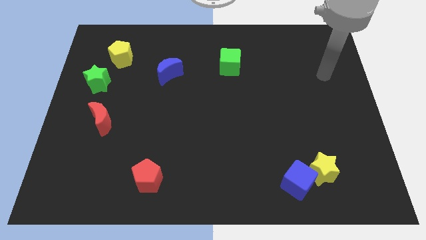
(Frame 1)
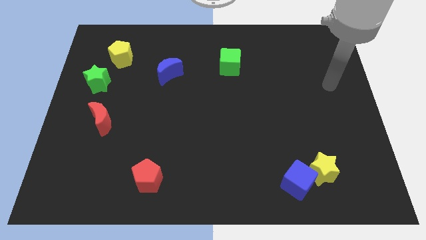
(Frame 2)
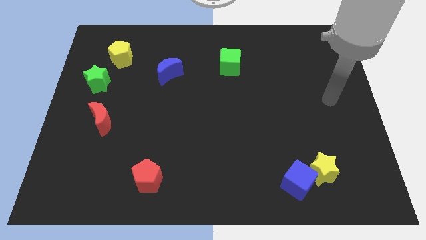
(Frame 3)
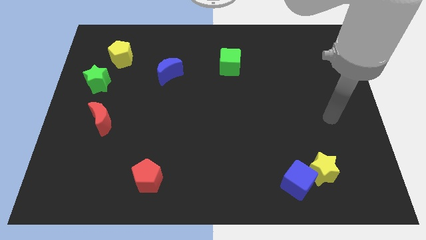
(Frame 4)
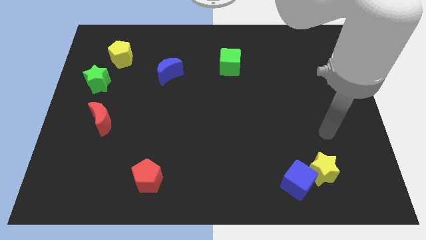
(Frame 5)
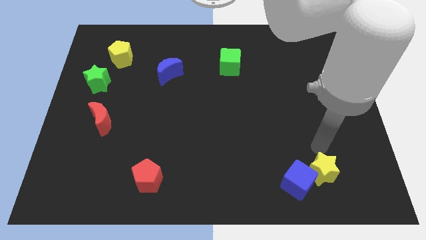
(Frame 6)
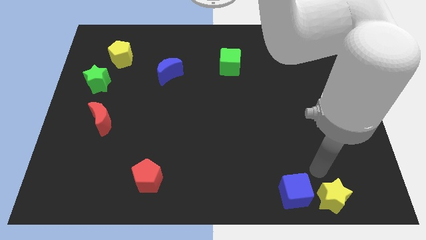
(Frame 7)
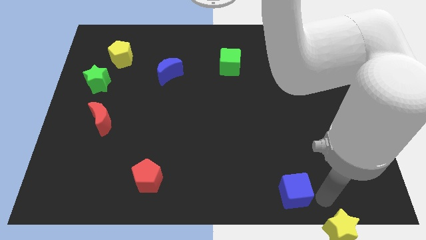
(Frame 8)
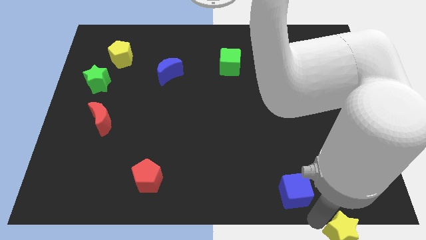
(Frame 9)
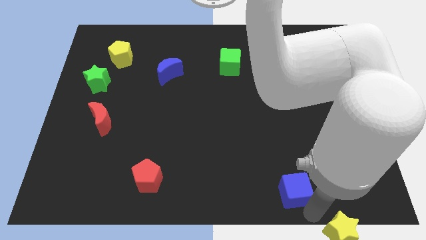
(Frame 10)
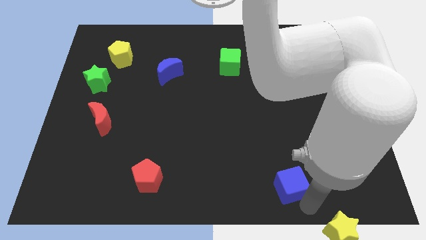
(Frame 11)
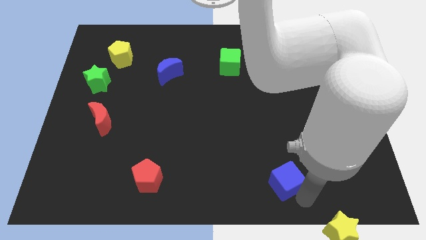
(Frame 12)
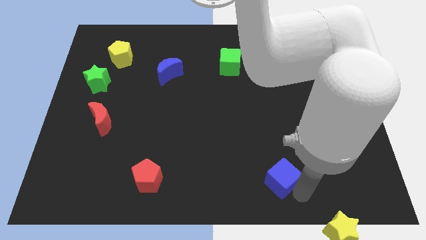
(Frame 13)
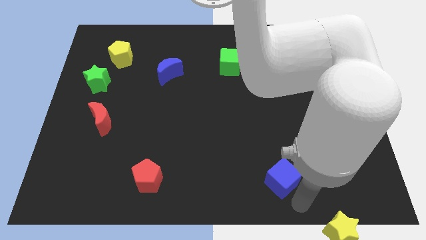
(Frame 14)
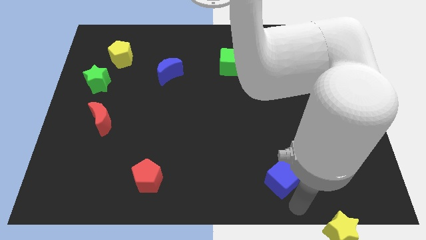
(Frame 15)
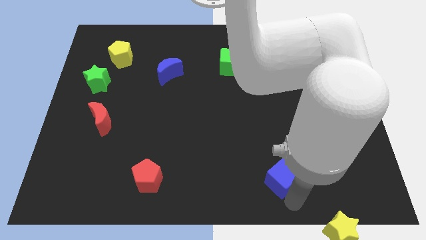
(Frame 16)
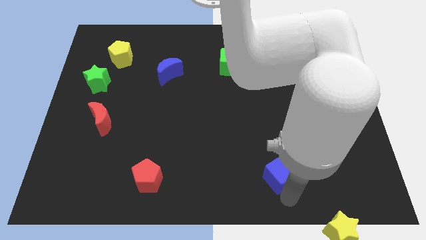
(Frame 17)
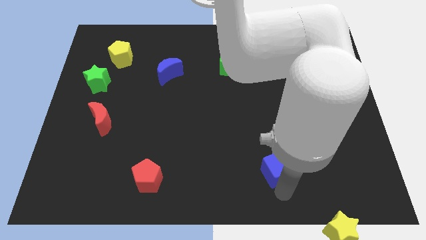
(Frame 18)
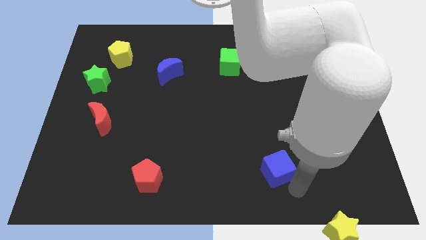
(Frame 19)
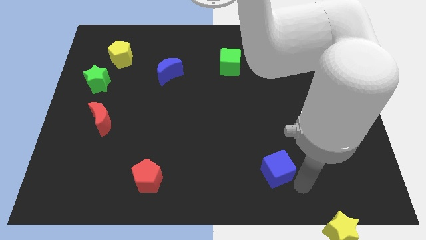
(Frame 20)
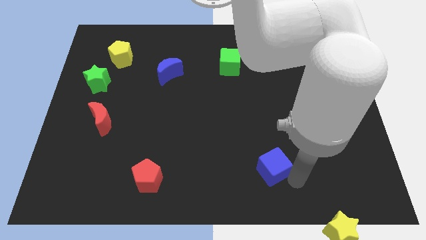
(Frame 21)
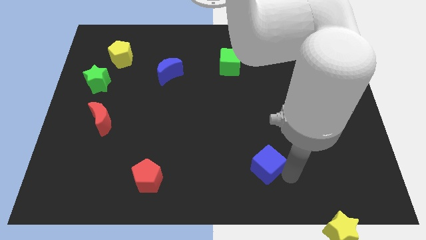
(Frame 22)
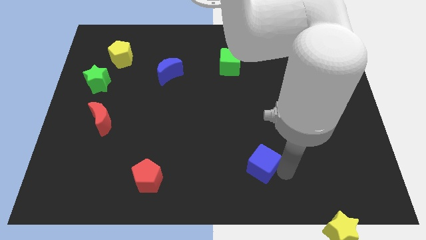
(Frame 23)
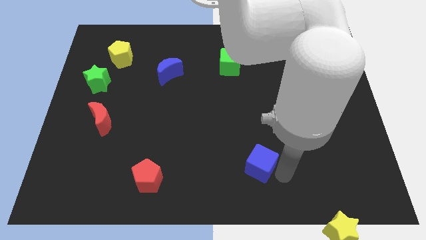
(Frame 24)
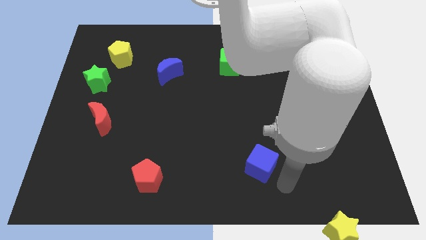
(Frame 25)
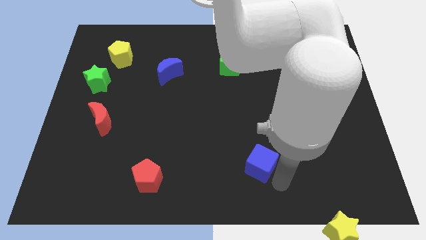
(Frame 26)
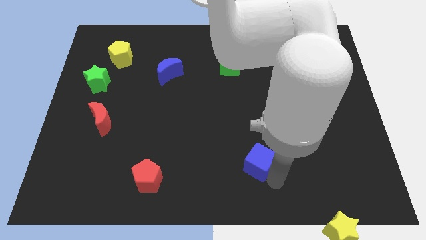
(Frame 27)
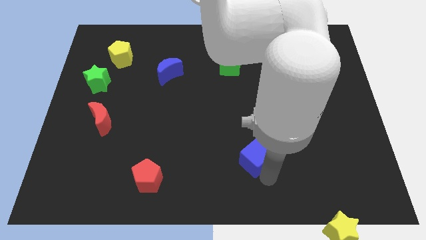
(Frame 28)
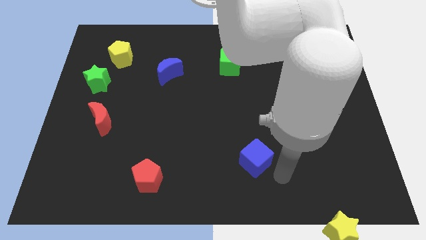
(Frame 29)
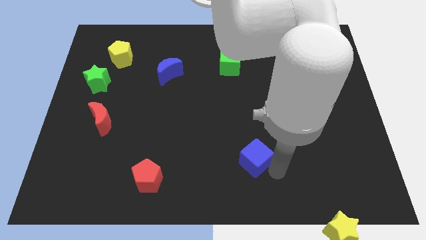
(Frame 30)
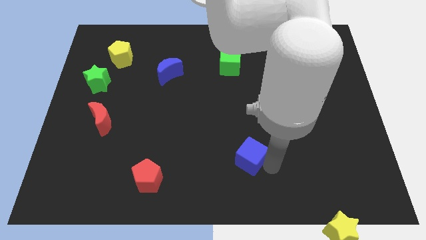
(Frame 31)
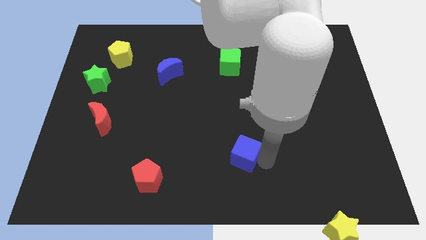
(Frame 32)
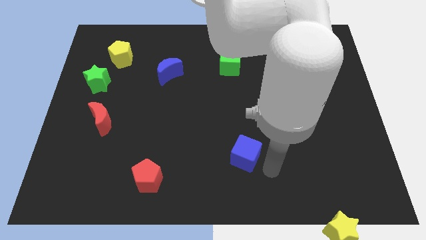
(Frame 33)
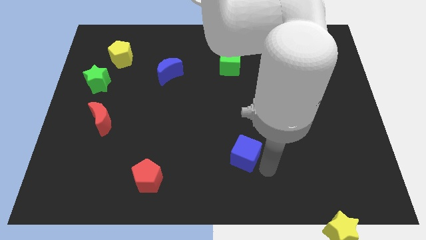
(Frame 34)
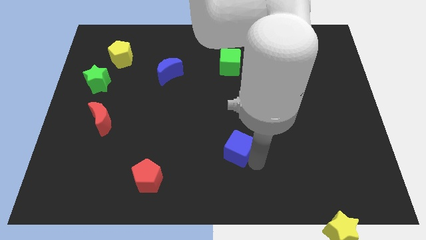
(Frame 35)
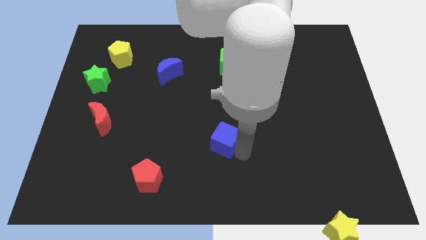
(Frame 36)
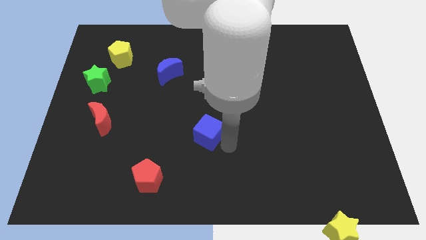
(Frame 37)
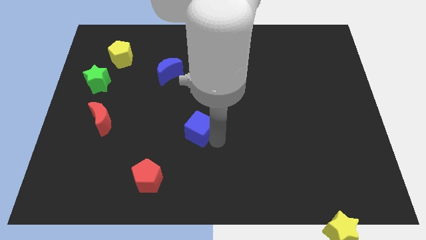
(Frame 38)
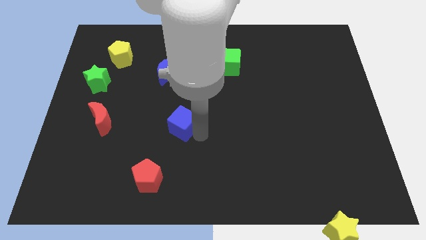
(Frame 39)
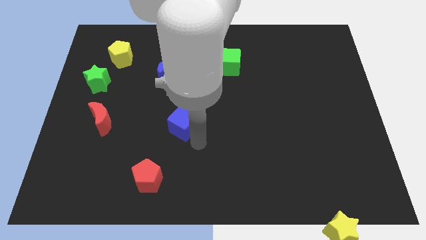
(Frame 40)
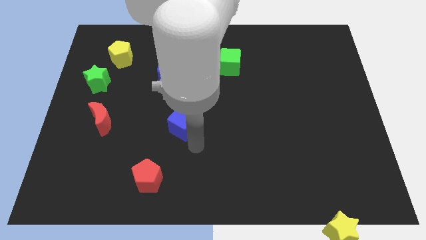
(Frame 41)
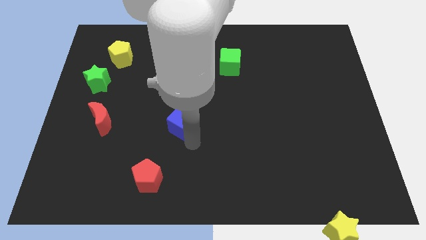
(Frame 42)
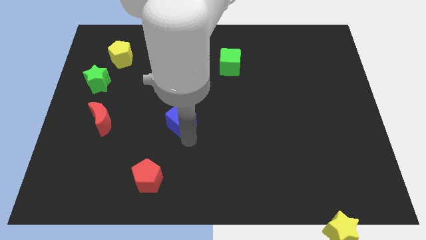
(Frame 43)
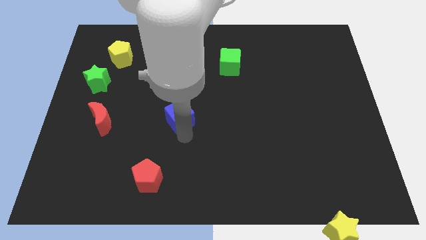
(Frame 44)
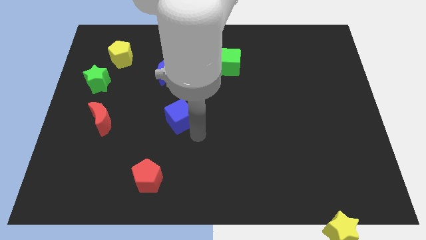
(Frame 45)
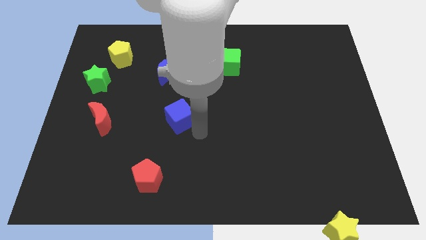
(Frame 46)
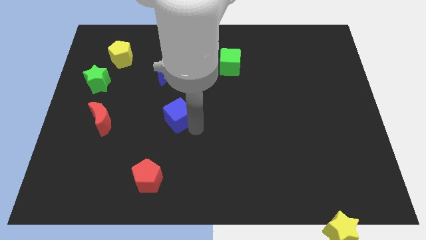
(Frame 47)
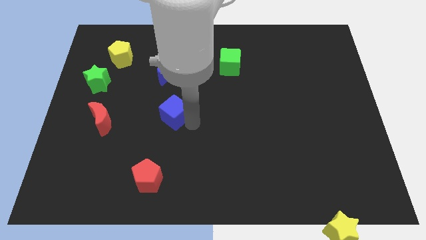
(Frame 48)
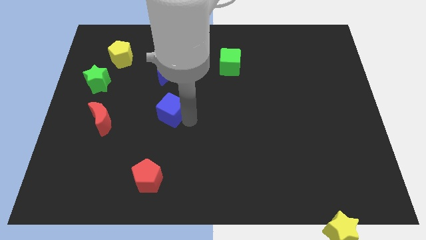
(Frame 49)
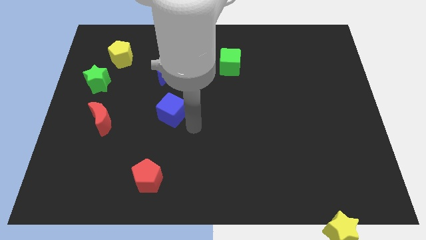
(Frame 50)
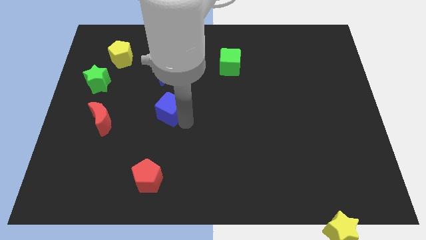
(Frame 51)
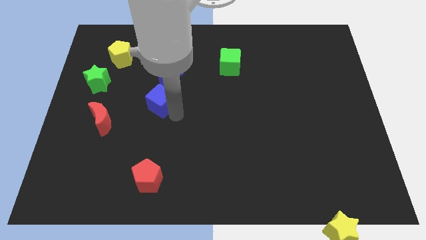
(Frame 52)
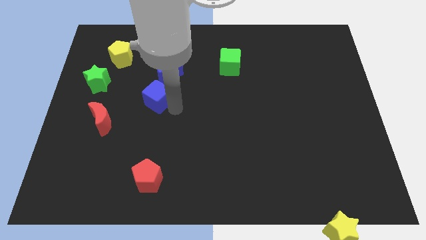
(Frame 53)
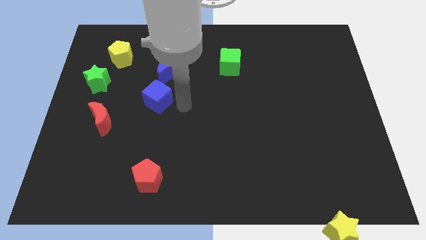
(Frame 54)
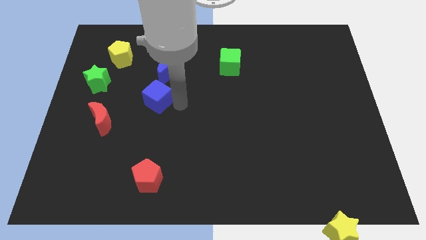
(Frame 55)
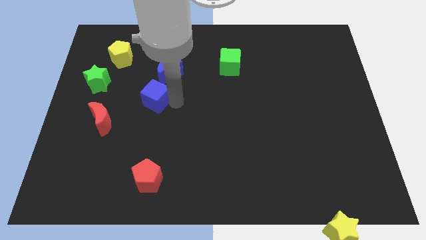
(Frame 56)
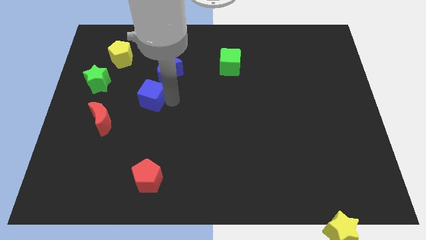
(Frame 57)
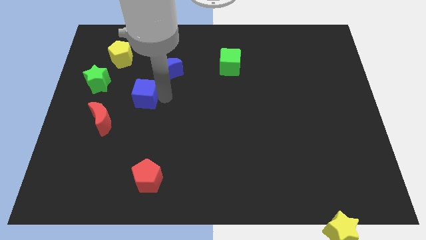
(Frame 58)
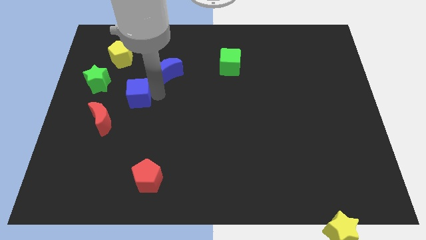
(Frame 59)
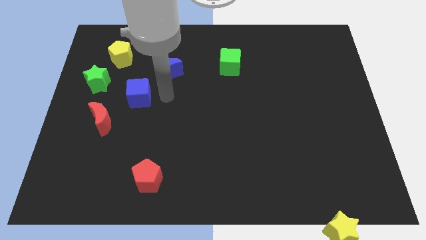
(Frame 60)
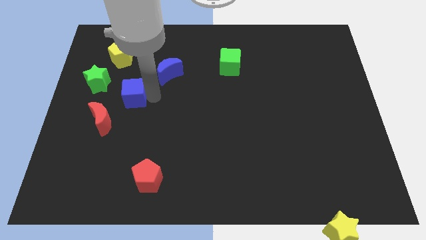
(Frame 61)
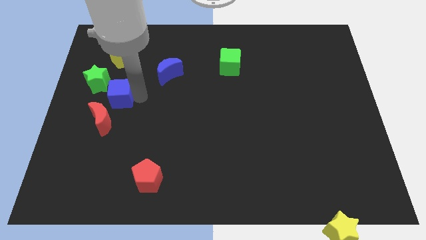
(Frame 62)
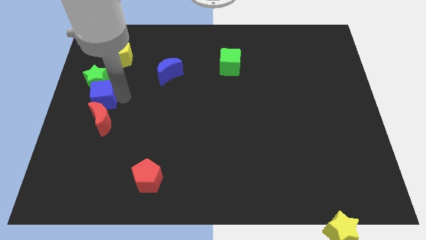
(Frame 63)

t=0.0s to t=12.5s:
slide the blue cube to the left side

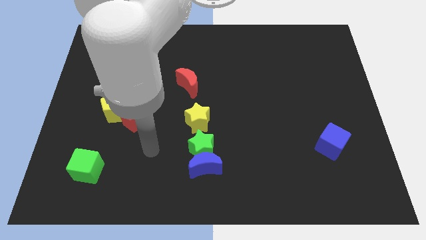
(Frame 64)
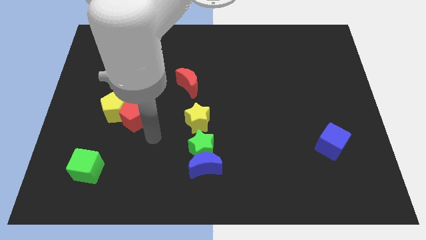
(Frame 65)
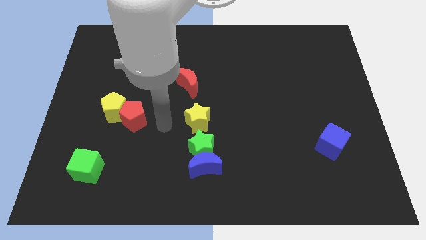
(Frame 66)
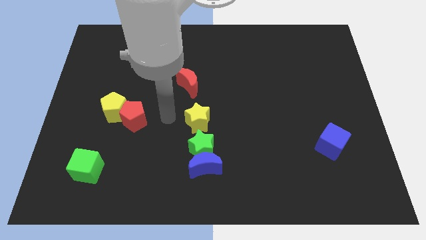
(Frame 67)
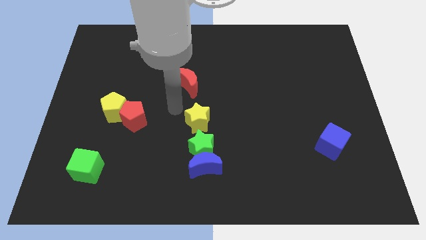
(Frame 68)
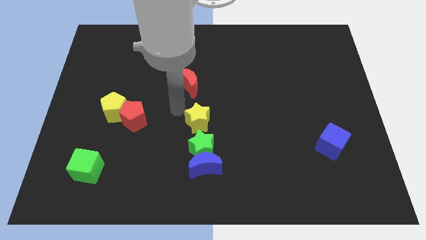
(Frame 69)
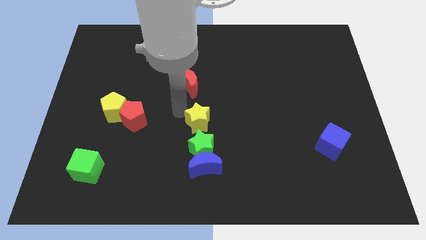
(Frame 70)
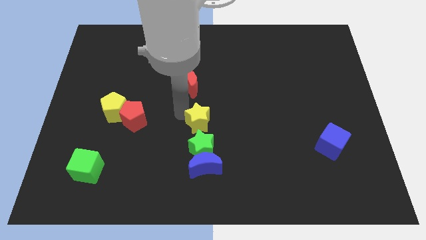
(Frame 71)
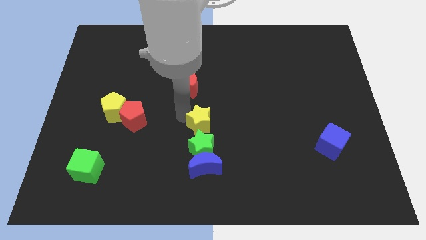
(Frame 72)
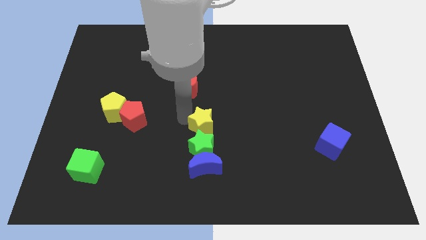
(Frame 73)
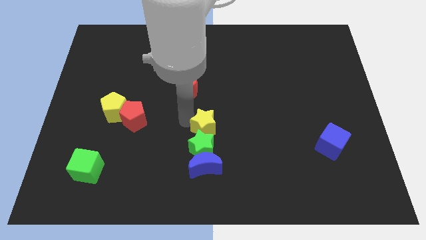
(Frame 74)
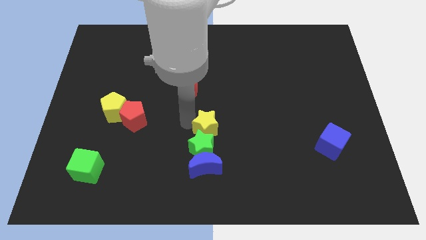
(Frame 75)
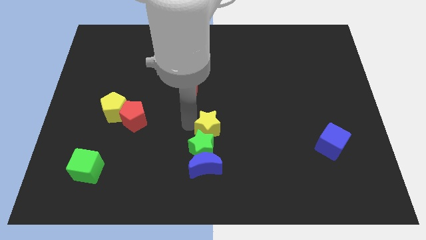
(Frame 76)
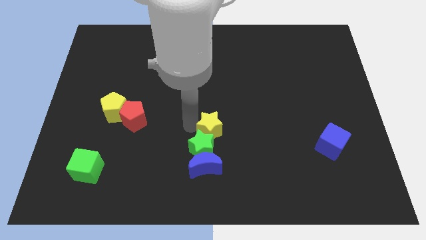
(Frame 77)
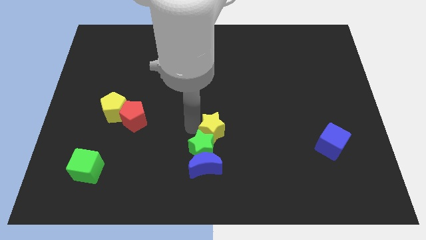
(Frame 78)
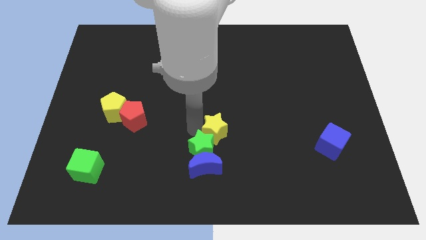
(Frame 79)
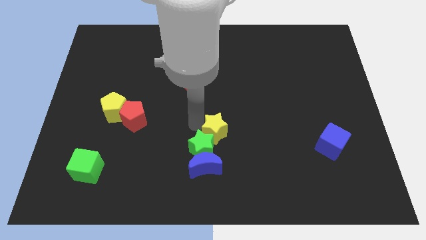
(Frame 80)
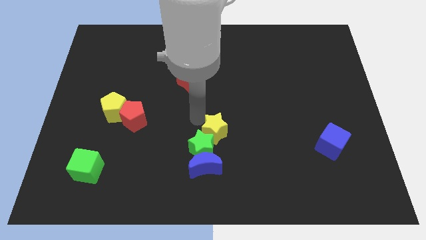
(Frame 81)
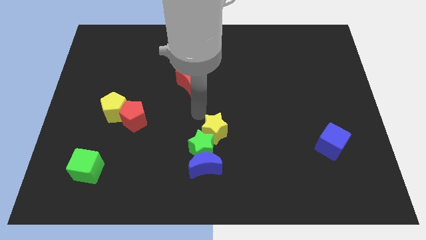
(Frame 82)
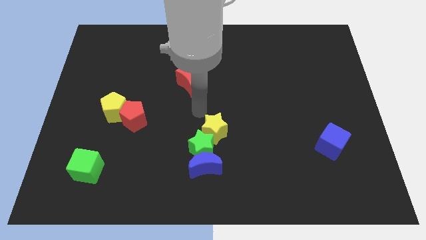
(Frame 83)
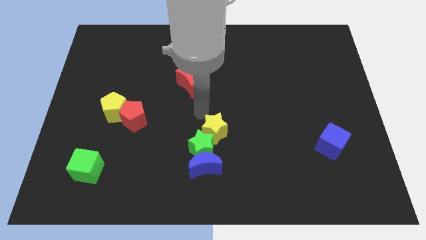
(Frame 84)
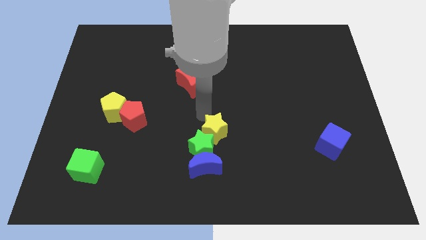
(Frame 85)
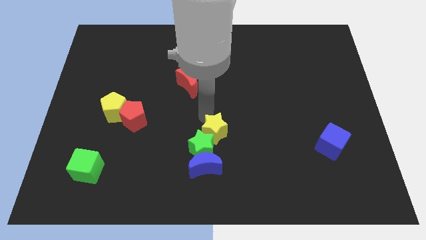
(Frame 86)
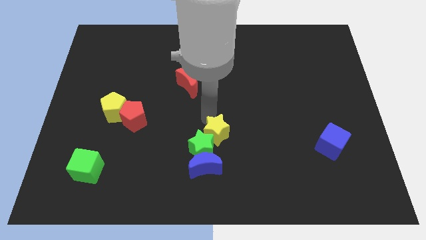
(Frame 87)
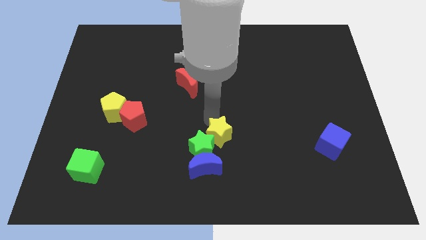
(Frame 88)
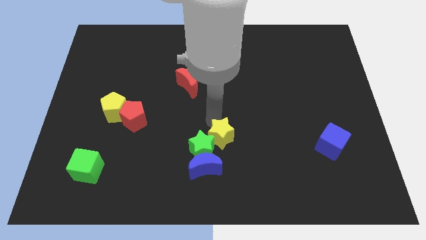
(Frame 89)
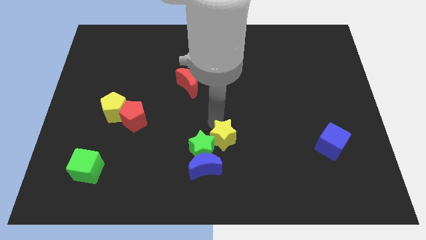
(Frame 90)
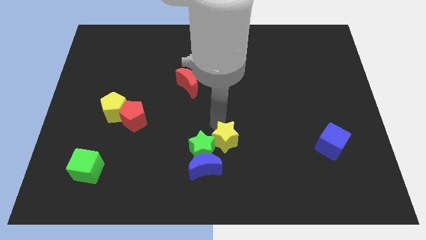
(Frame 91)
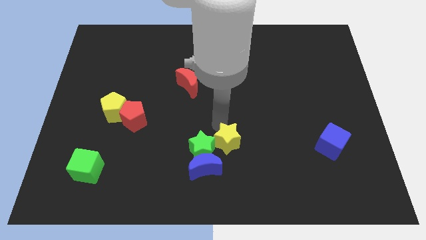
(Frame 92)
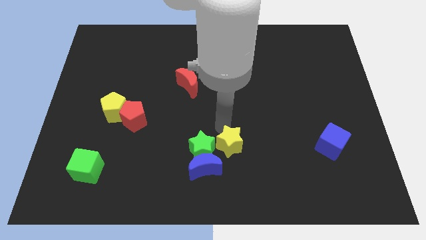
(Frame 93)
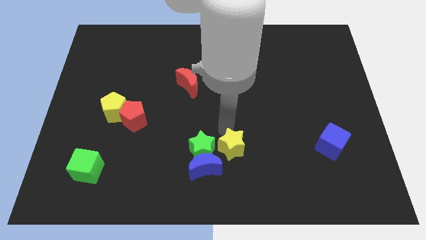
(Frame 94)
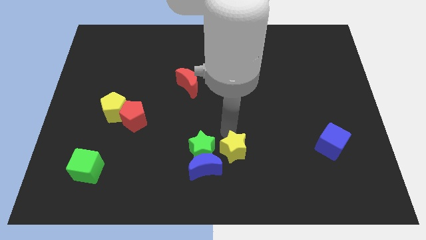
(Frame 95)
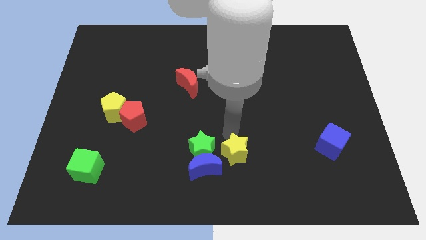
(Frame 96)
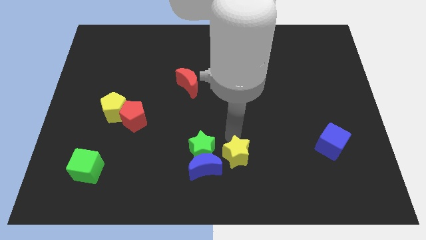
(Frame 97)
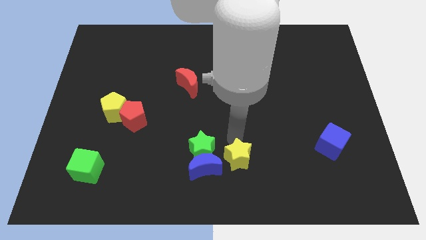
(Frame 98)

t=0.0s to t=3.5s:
move the yellow star to the bottom side
